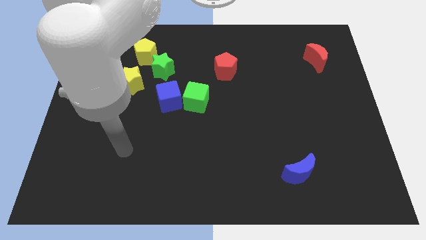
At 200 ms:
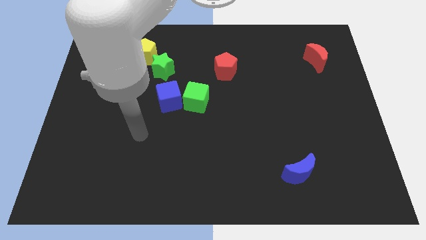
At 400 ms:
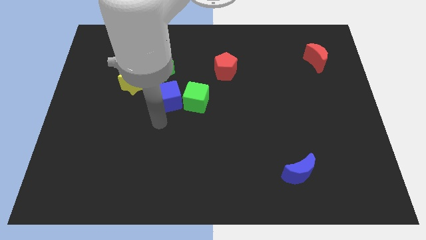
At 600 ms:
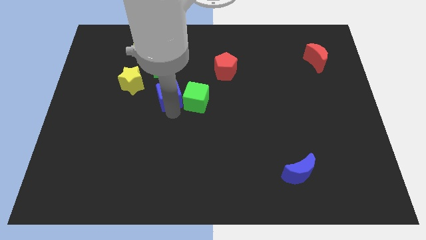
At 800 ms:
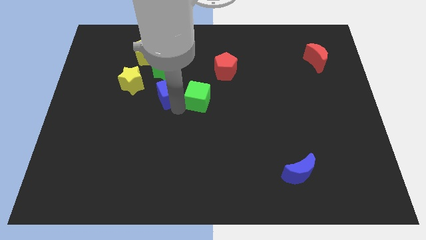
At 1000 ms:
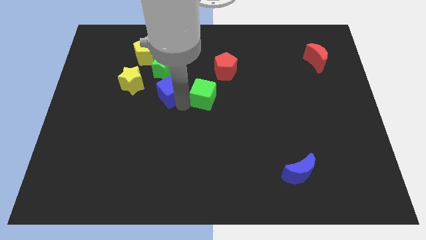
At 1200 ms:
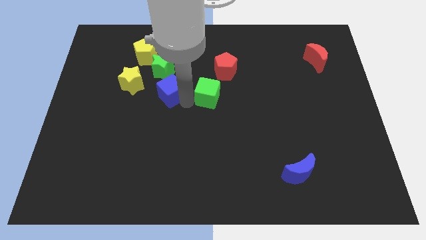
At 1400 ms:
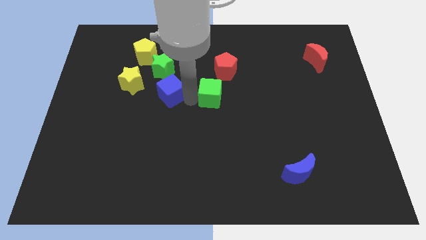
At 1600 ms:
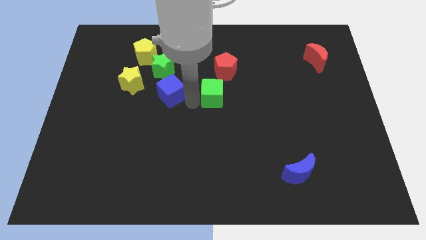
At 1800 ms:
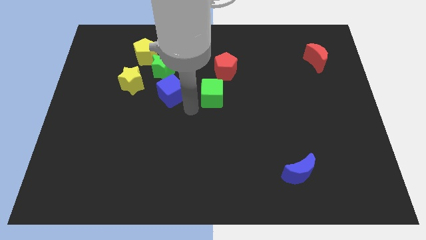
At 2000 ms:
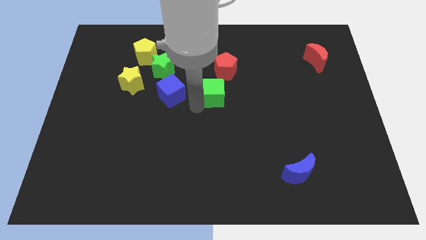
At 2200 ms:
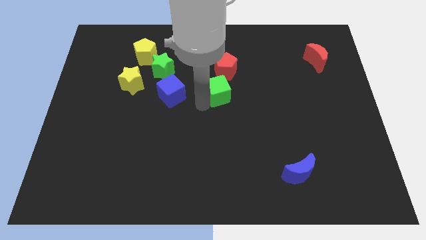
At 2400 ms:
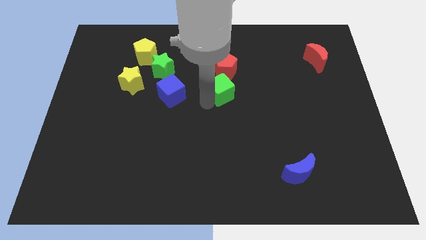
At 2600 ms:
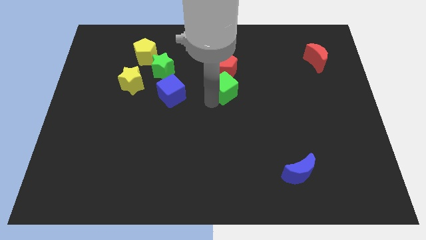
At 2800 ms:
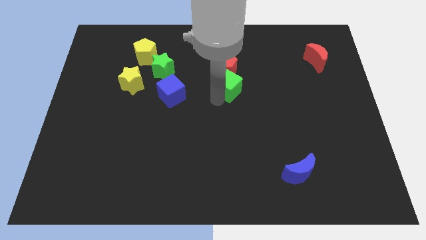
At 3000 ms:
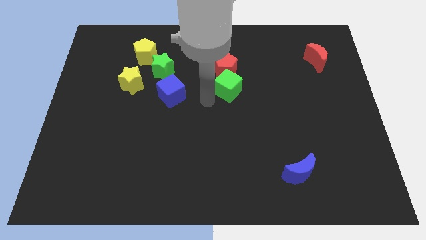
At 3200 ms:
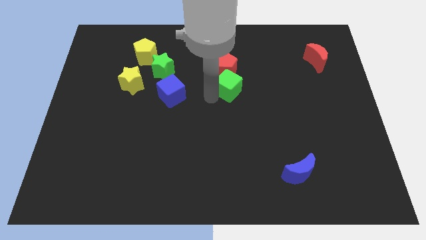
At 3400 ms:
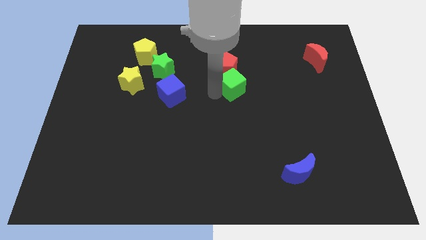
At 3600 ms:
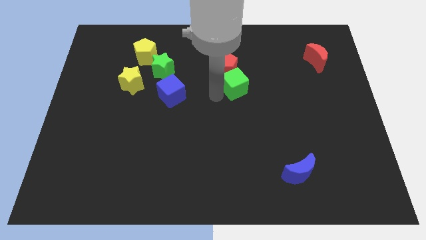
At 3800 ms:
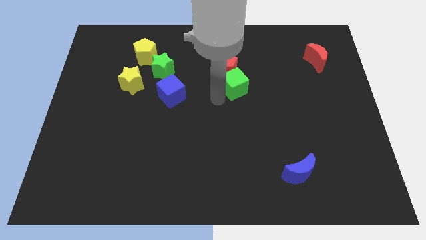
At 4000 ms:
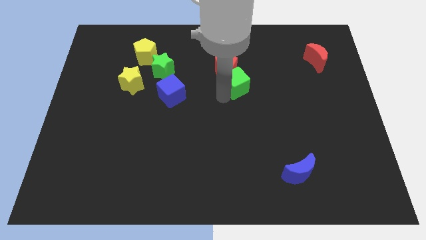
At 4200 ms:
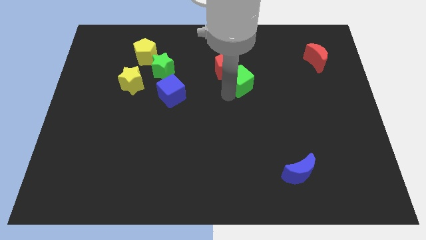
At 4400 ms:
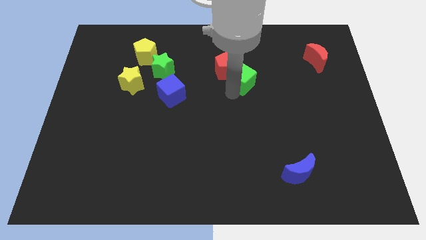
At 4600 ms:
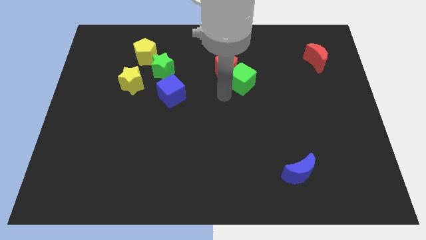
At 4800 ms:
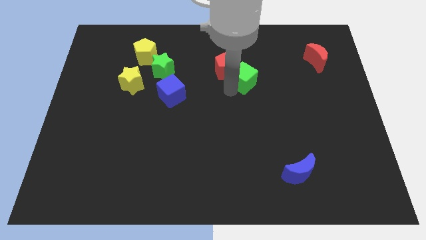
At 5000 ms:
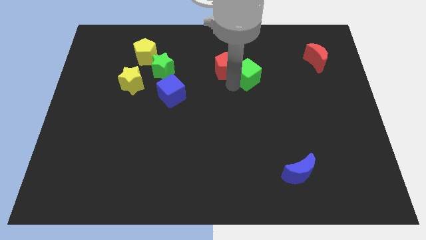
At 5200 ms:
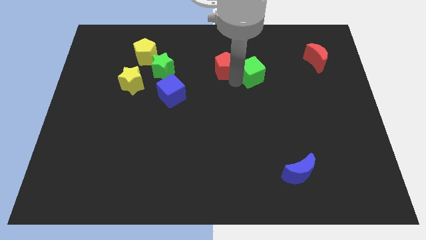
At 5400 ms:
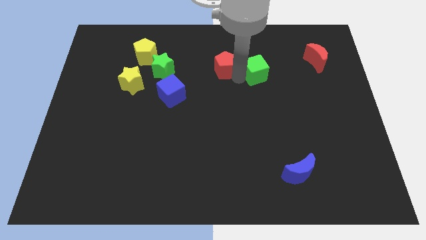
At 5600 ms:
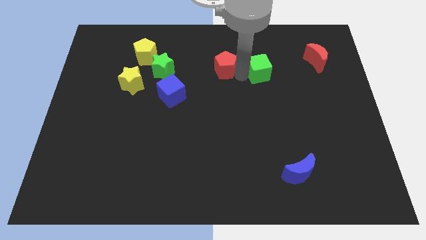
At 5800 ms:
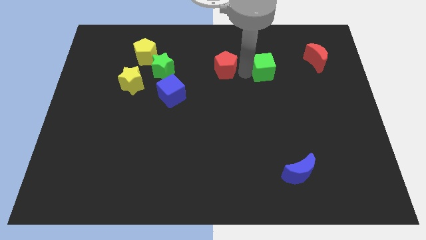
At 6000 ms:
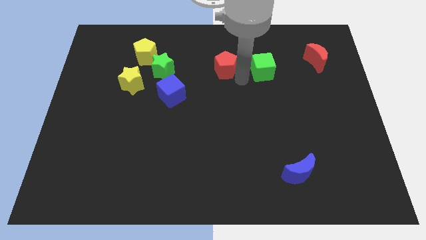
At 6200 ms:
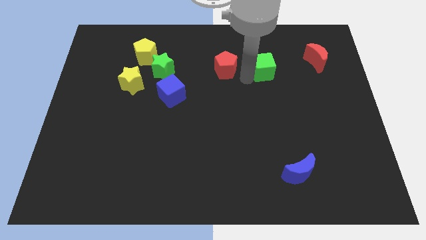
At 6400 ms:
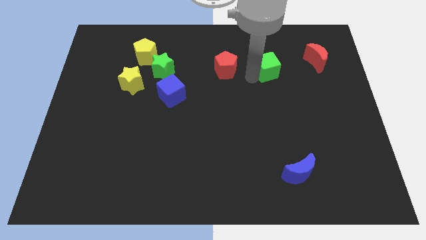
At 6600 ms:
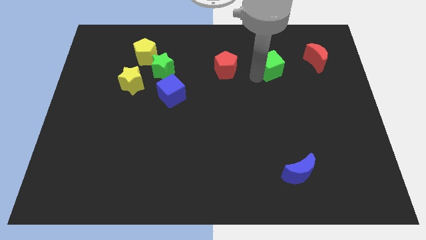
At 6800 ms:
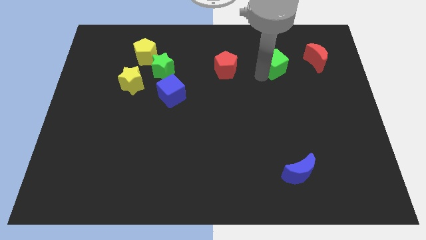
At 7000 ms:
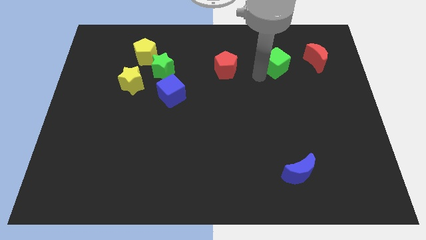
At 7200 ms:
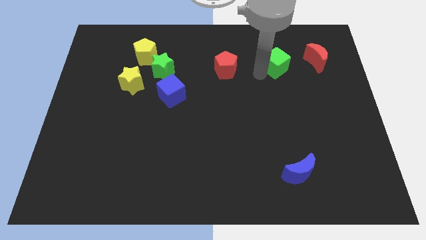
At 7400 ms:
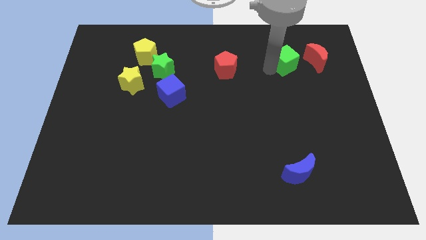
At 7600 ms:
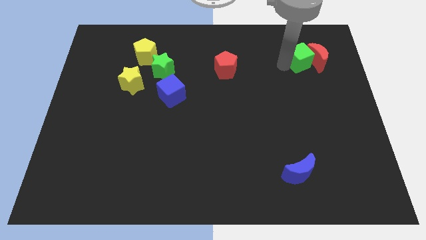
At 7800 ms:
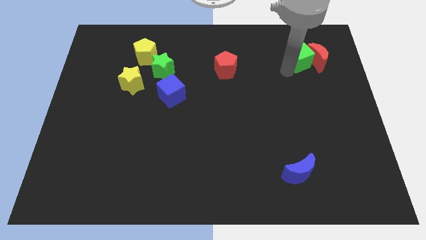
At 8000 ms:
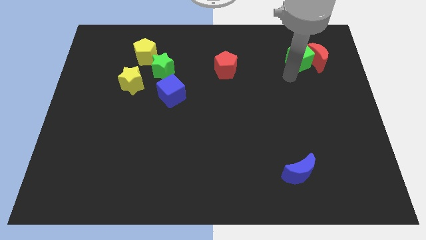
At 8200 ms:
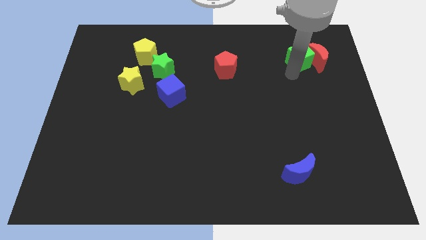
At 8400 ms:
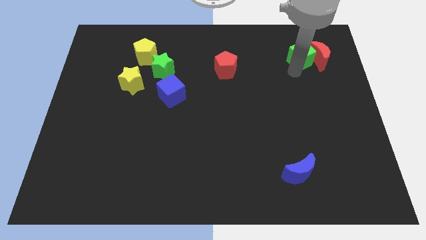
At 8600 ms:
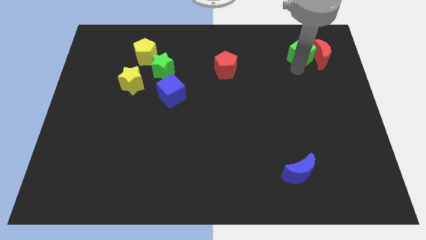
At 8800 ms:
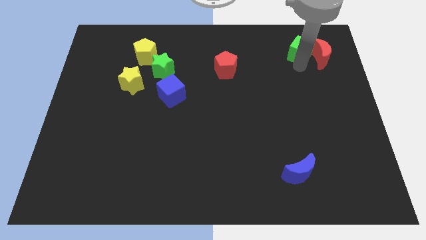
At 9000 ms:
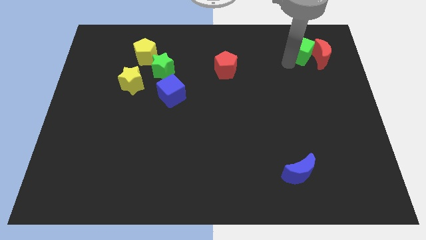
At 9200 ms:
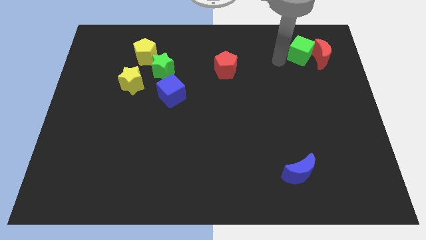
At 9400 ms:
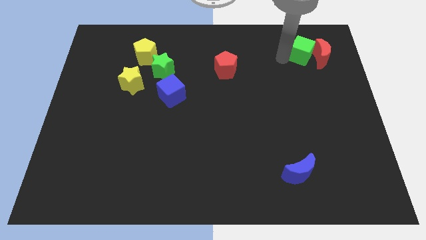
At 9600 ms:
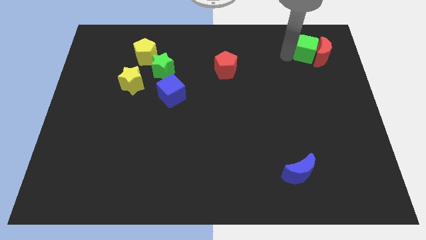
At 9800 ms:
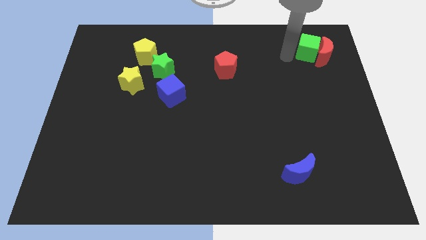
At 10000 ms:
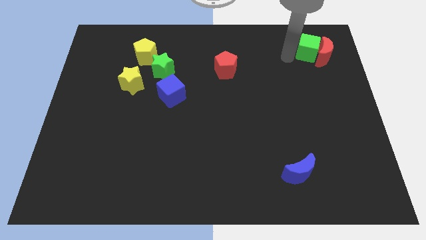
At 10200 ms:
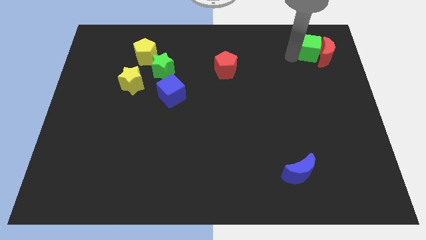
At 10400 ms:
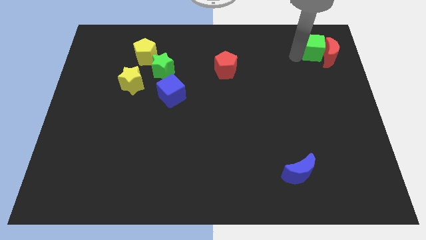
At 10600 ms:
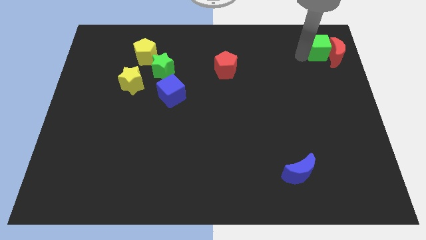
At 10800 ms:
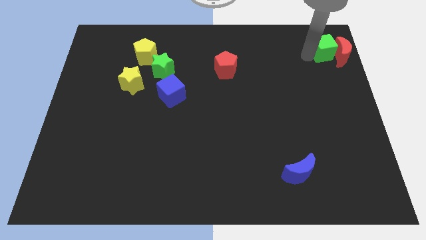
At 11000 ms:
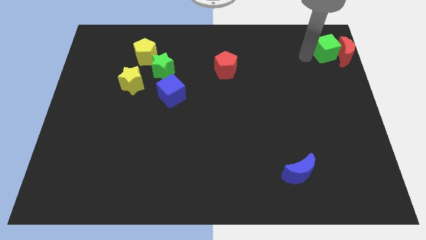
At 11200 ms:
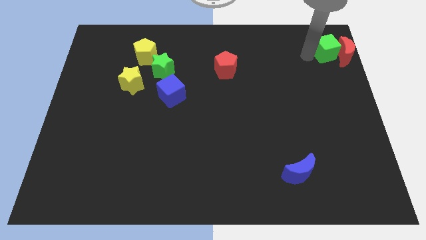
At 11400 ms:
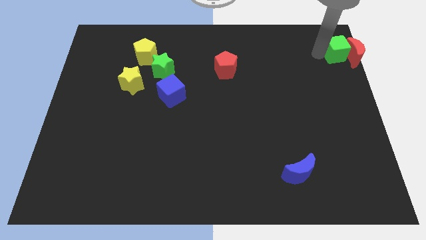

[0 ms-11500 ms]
put the green cube to the top right
